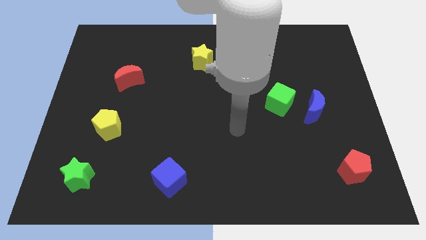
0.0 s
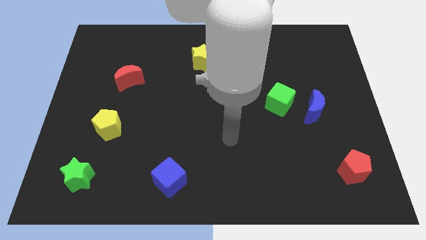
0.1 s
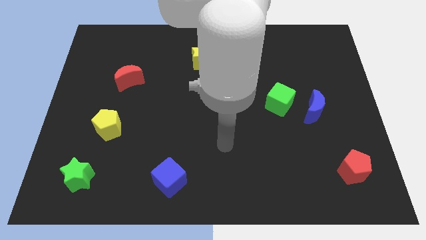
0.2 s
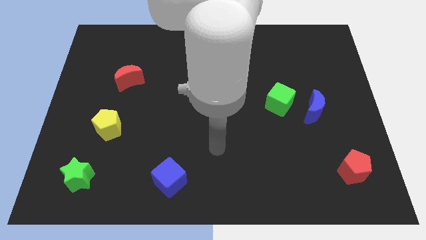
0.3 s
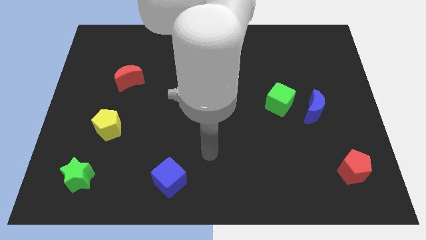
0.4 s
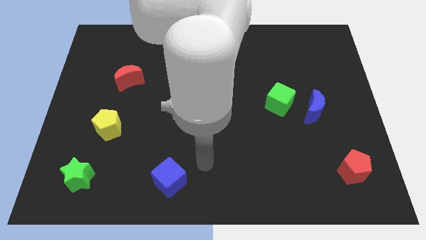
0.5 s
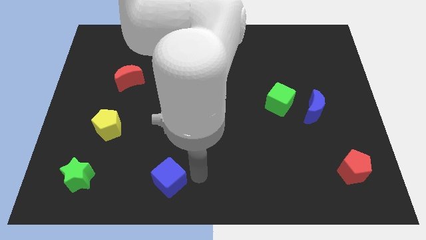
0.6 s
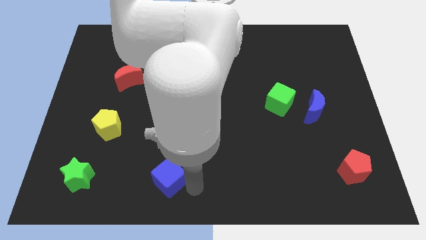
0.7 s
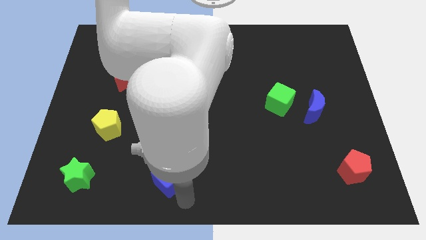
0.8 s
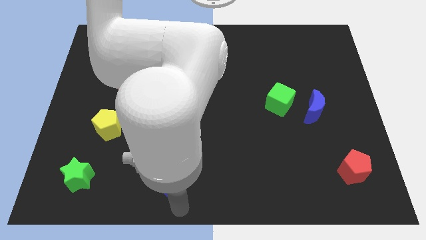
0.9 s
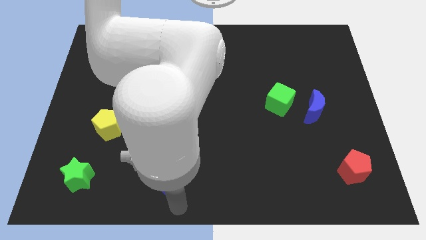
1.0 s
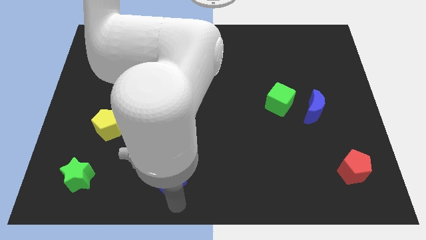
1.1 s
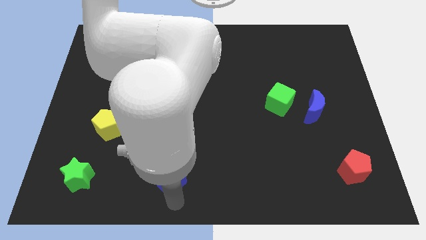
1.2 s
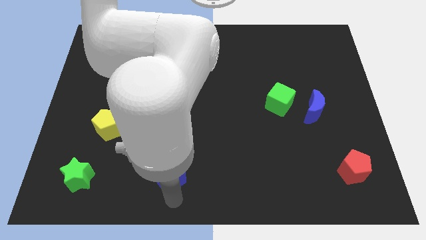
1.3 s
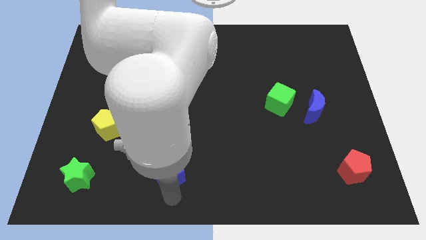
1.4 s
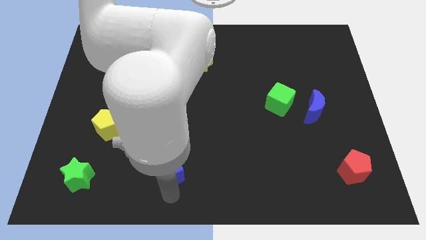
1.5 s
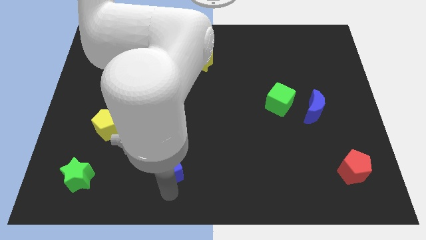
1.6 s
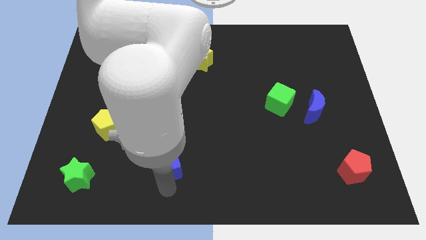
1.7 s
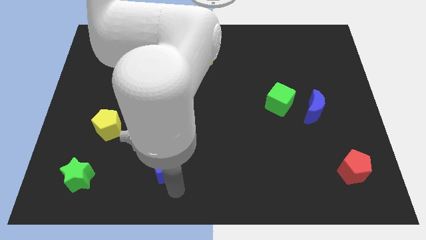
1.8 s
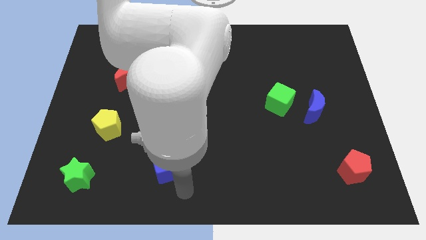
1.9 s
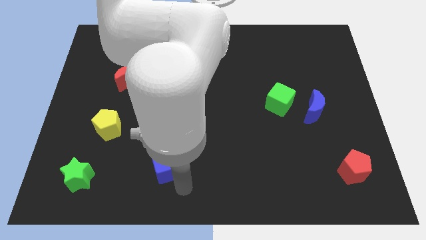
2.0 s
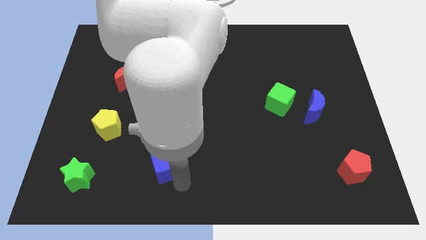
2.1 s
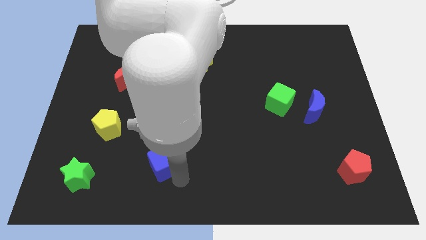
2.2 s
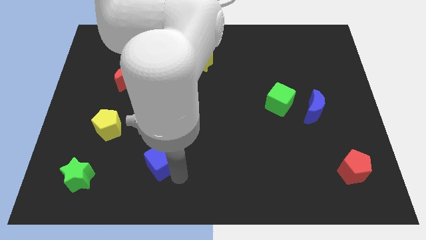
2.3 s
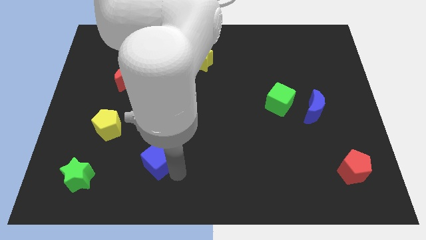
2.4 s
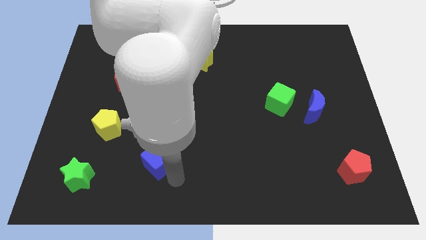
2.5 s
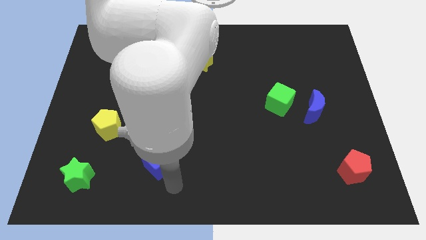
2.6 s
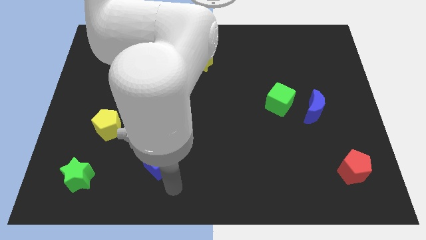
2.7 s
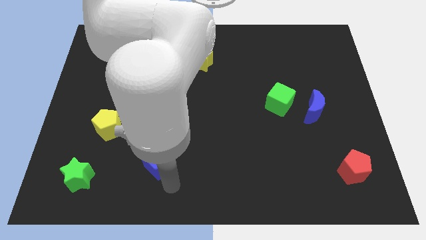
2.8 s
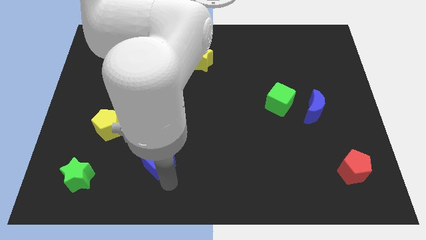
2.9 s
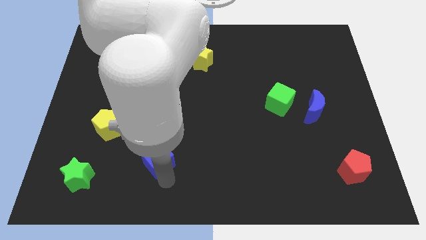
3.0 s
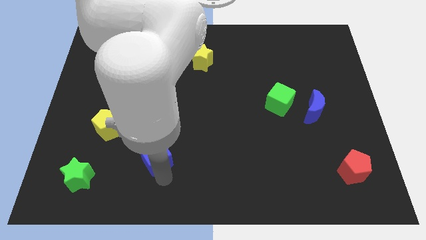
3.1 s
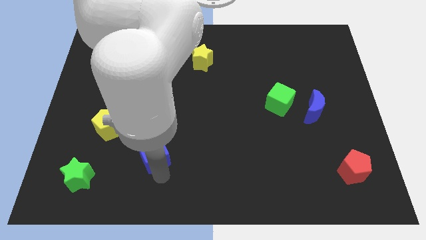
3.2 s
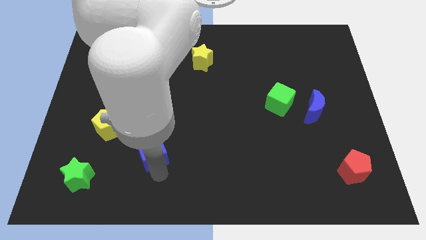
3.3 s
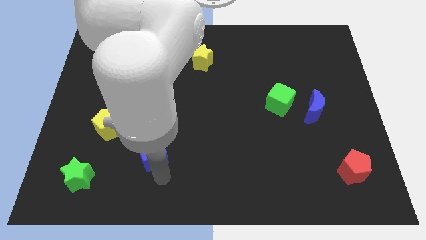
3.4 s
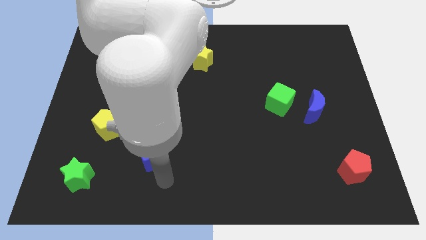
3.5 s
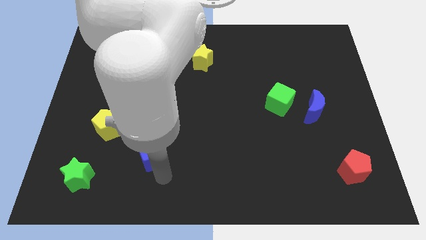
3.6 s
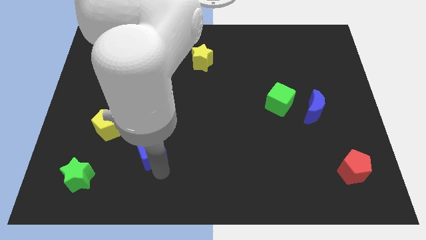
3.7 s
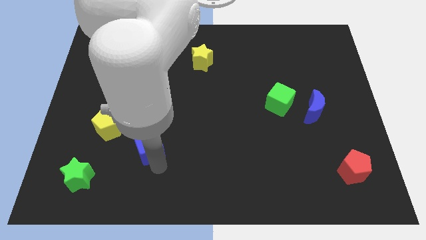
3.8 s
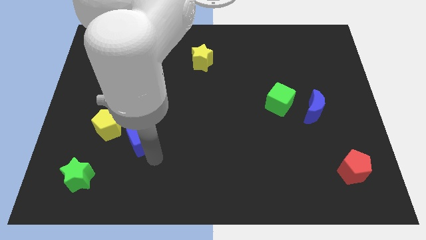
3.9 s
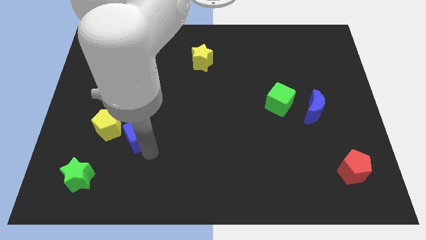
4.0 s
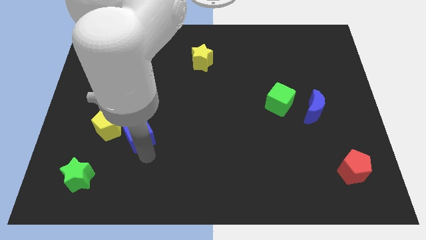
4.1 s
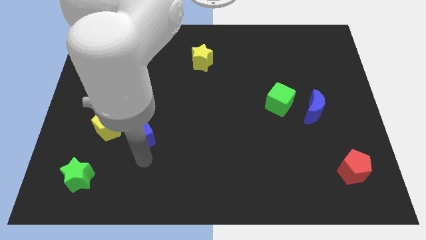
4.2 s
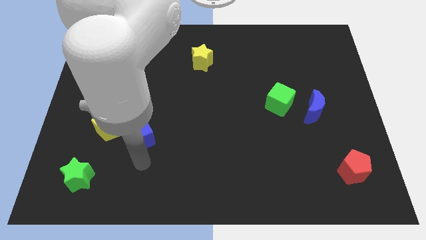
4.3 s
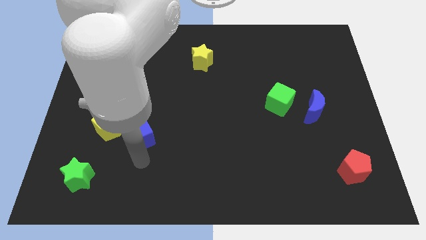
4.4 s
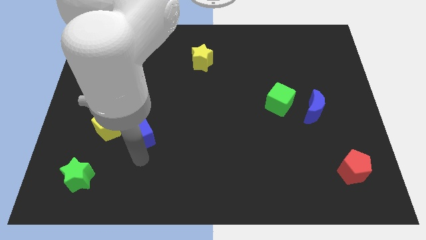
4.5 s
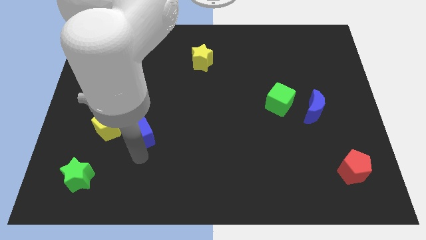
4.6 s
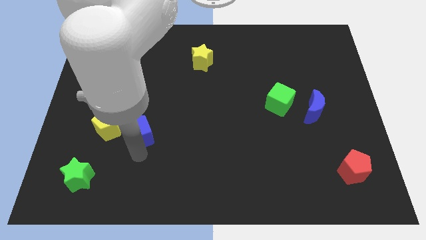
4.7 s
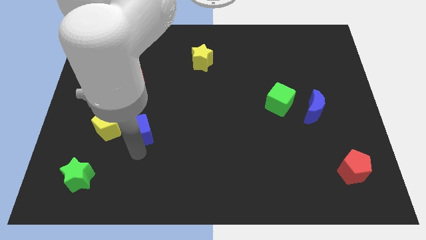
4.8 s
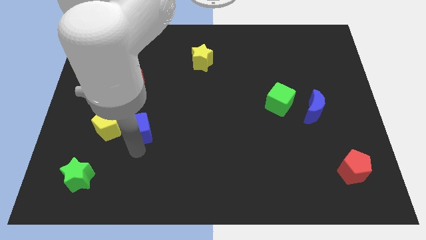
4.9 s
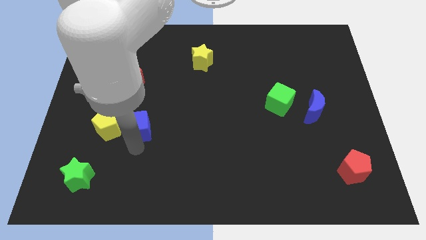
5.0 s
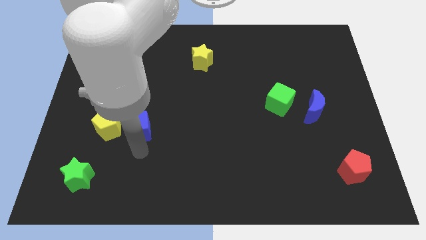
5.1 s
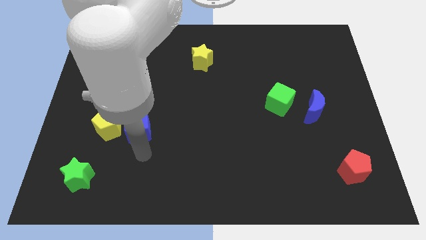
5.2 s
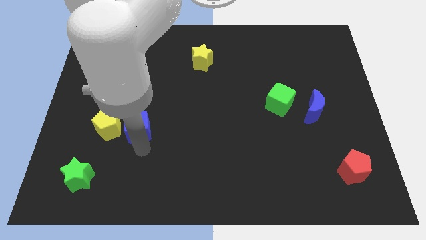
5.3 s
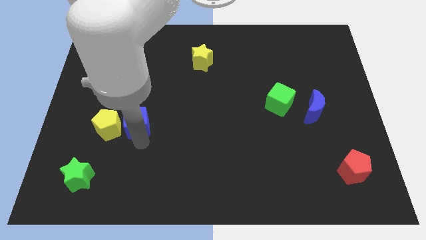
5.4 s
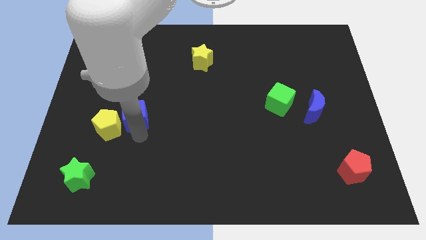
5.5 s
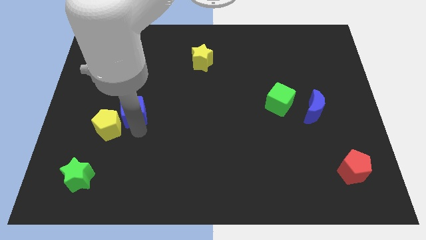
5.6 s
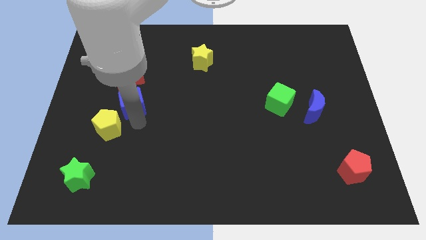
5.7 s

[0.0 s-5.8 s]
move the blue cube to the top of the yellow pentagon

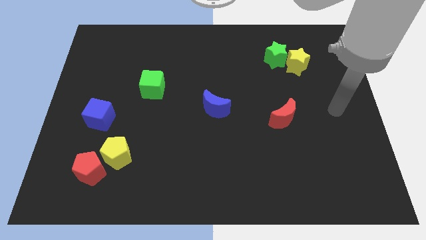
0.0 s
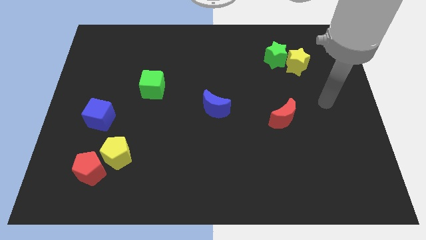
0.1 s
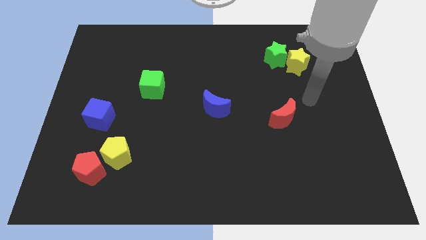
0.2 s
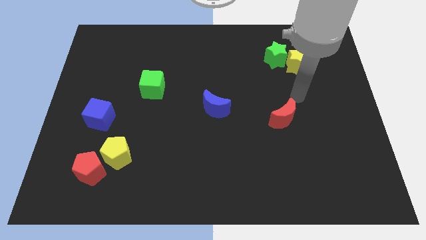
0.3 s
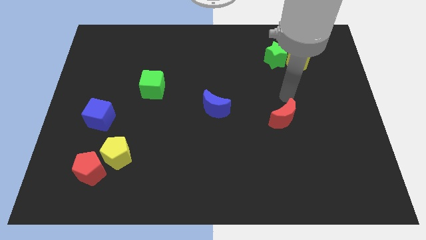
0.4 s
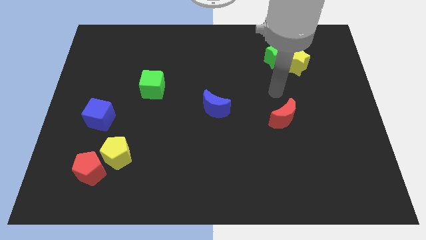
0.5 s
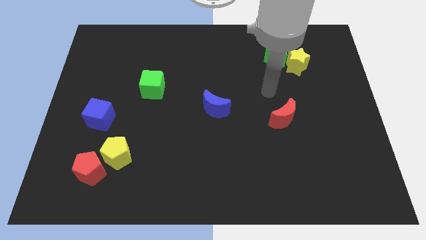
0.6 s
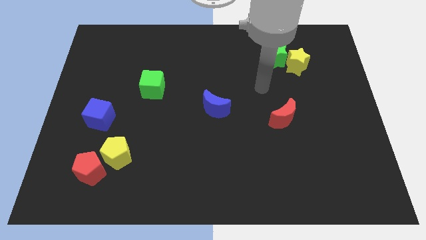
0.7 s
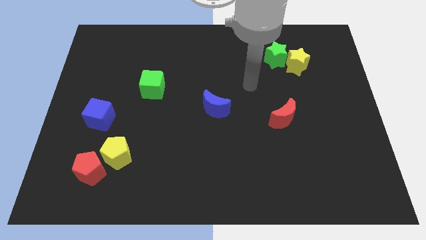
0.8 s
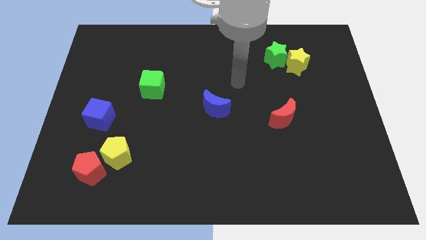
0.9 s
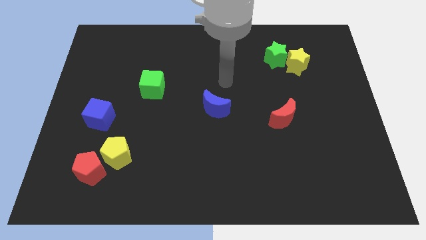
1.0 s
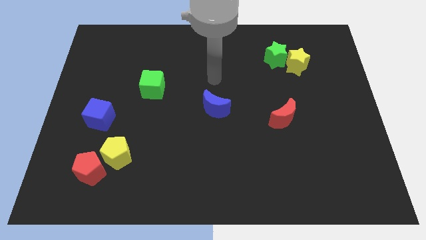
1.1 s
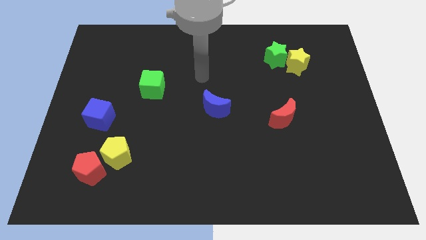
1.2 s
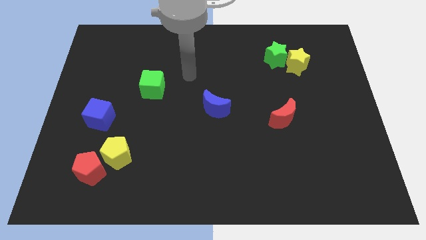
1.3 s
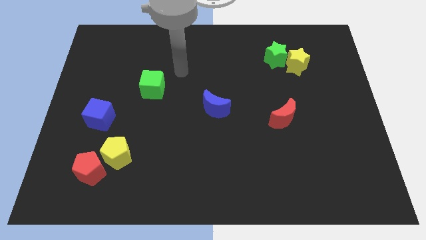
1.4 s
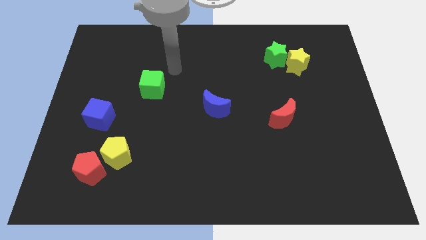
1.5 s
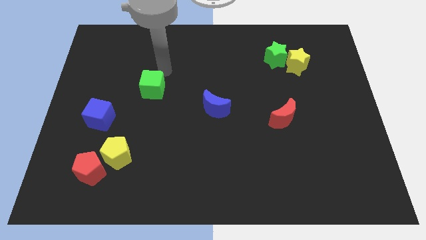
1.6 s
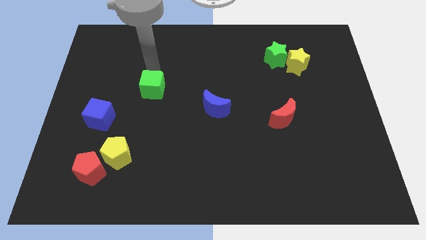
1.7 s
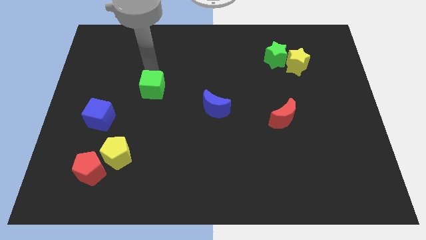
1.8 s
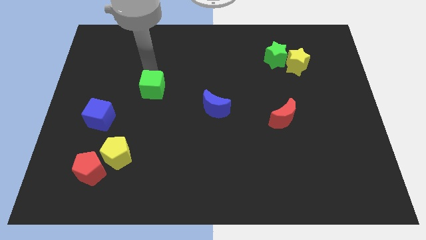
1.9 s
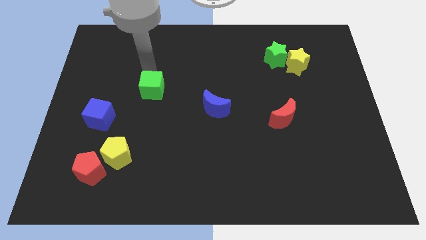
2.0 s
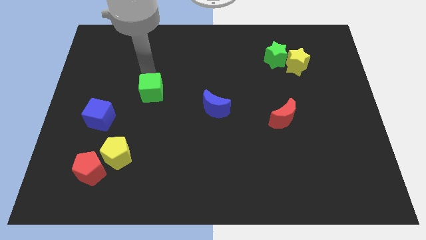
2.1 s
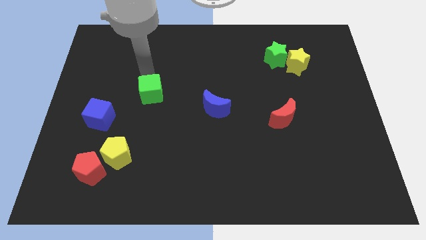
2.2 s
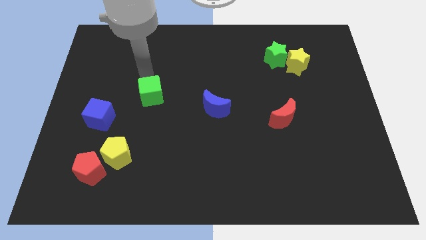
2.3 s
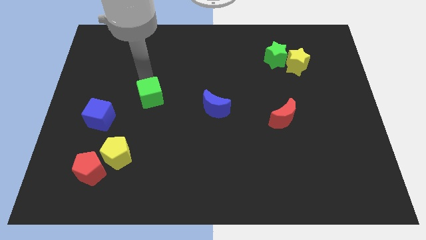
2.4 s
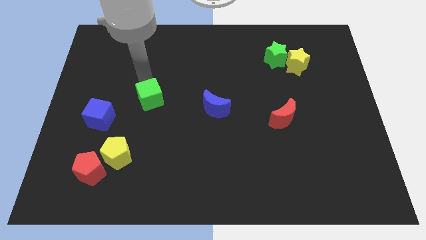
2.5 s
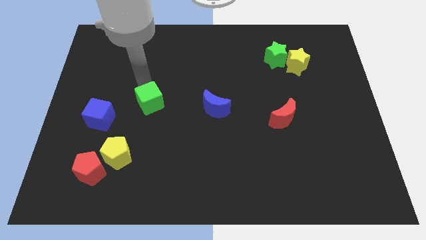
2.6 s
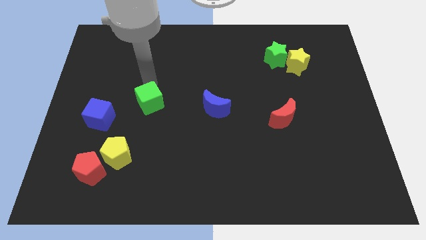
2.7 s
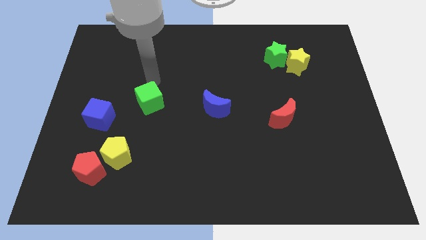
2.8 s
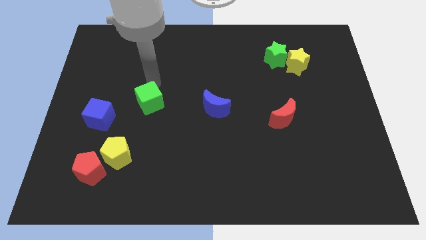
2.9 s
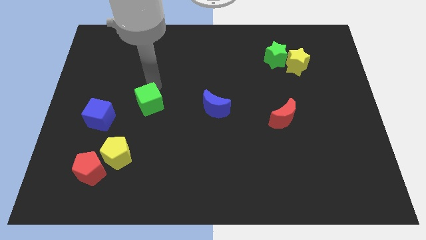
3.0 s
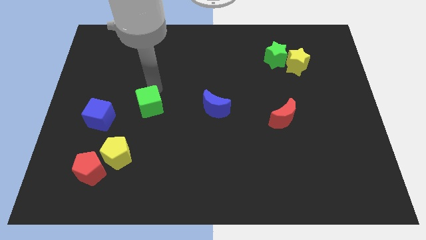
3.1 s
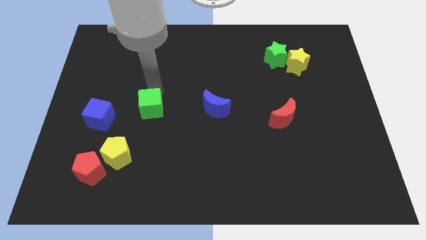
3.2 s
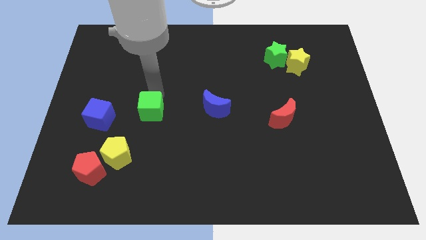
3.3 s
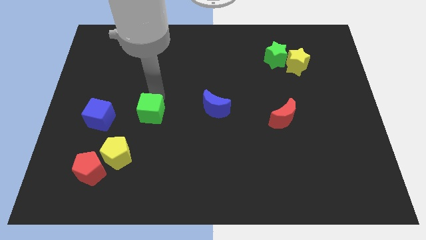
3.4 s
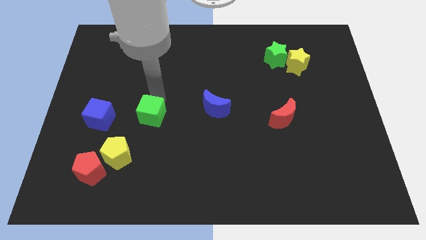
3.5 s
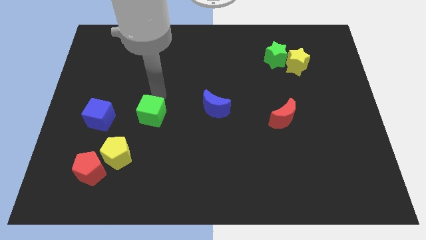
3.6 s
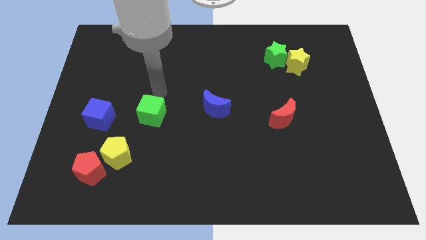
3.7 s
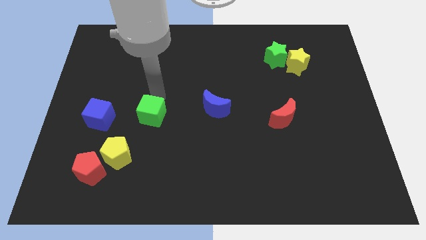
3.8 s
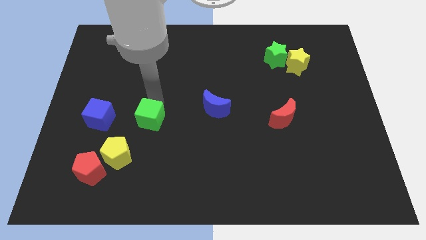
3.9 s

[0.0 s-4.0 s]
push the green cube to the top right of the yellow pentagon
